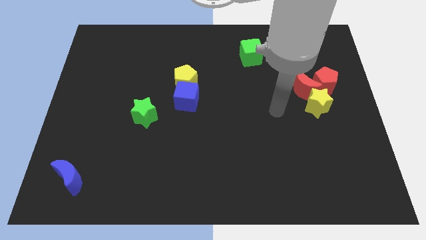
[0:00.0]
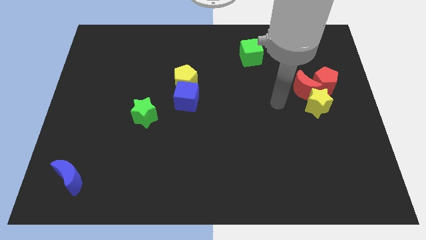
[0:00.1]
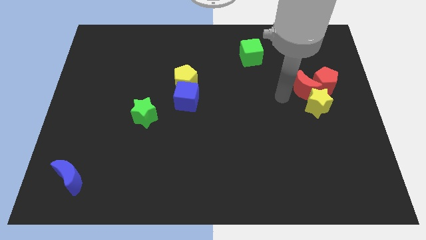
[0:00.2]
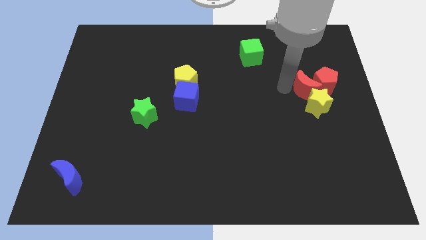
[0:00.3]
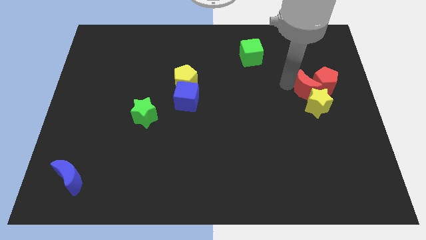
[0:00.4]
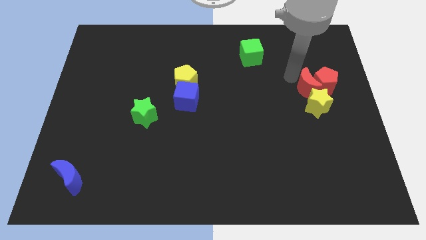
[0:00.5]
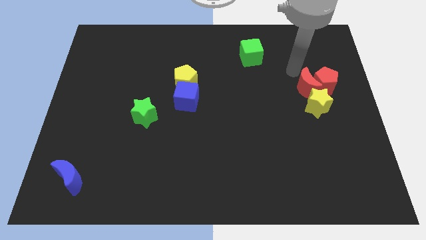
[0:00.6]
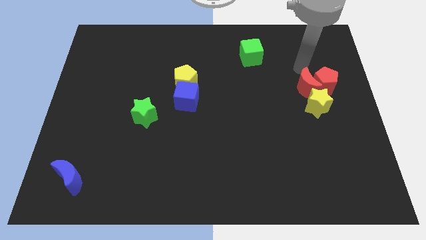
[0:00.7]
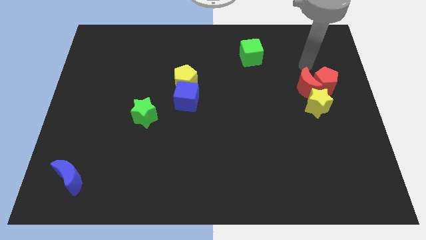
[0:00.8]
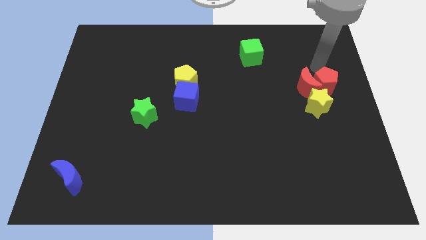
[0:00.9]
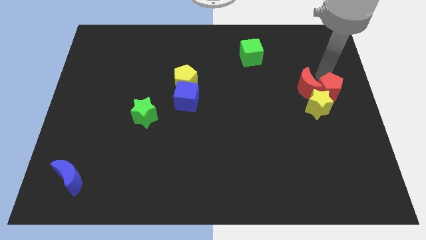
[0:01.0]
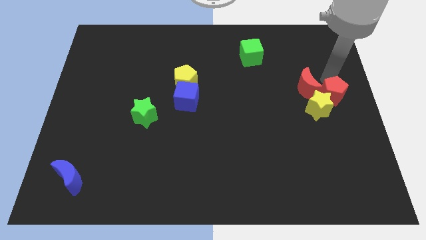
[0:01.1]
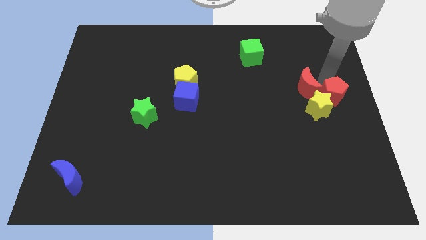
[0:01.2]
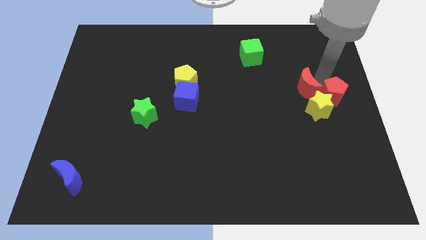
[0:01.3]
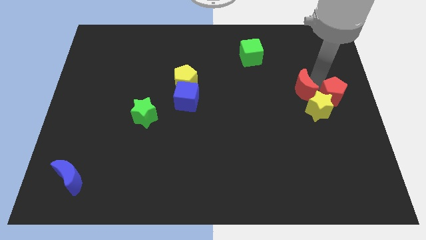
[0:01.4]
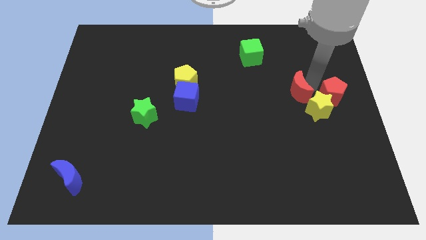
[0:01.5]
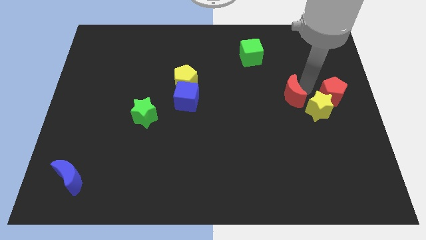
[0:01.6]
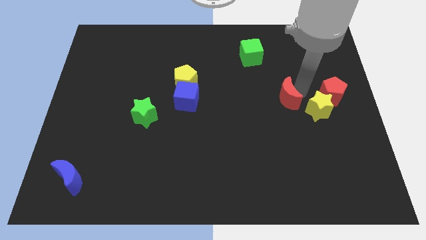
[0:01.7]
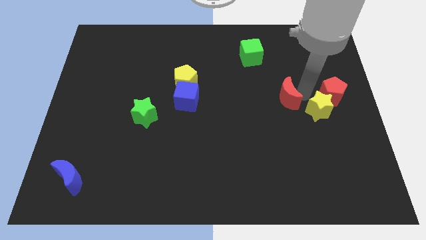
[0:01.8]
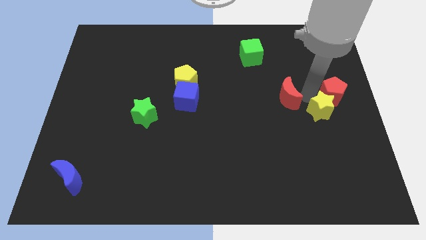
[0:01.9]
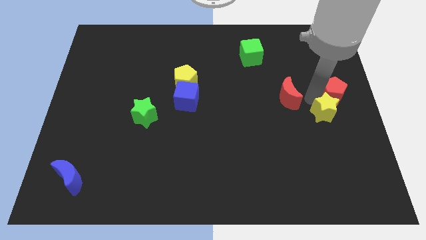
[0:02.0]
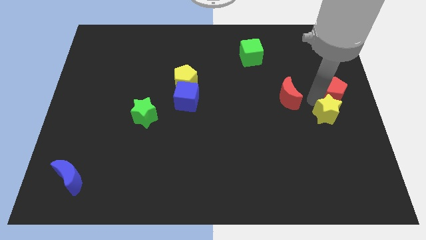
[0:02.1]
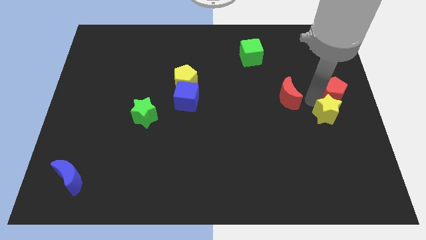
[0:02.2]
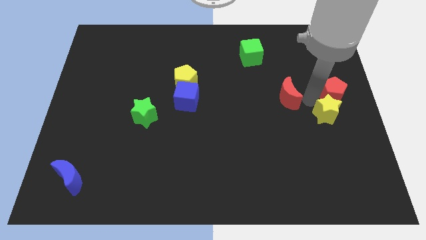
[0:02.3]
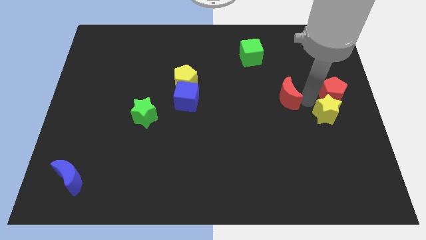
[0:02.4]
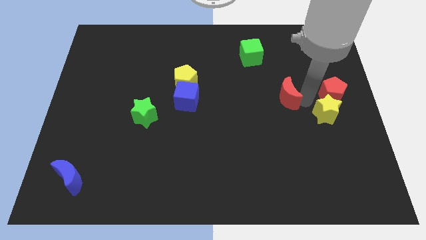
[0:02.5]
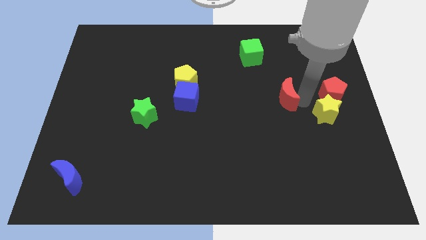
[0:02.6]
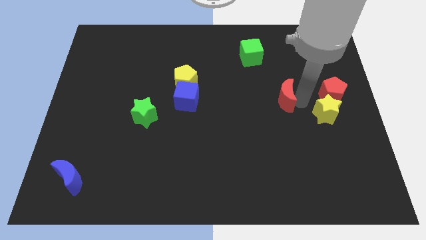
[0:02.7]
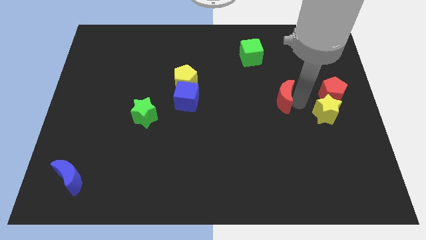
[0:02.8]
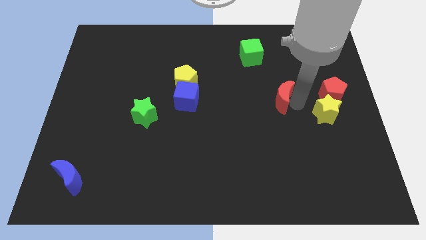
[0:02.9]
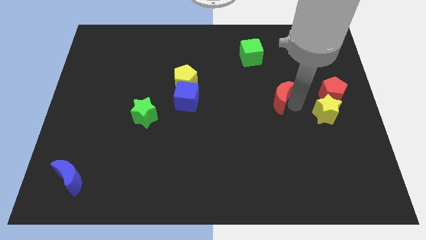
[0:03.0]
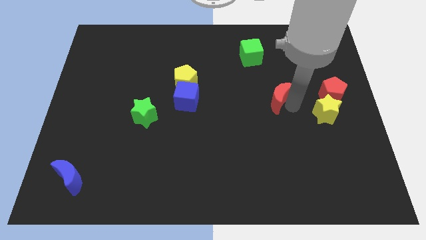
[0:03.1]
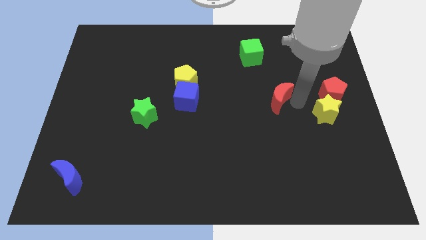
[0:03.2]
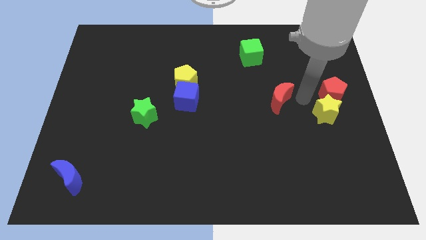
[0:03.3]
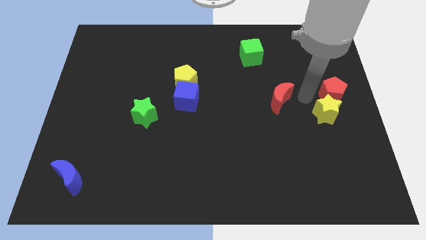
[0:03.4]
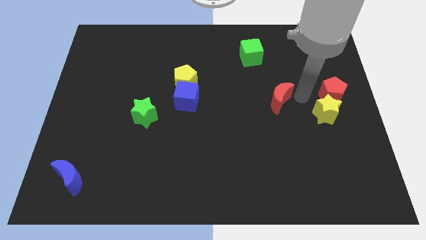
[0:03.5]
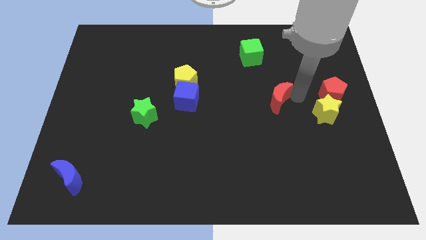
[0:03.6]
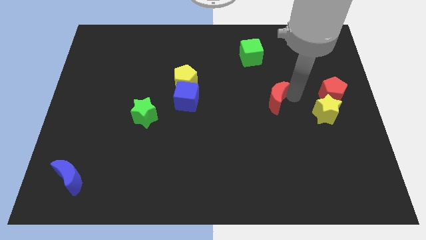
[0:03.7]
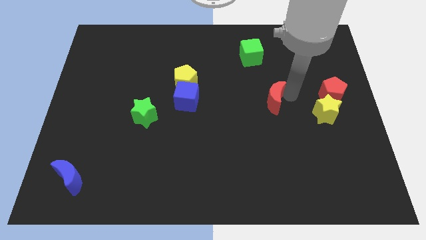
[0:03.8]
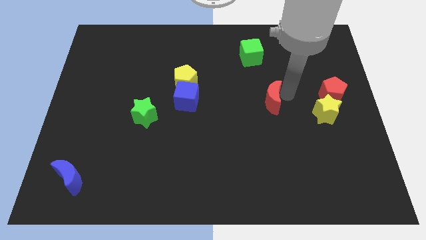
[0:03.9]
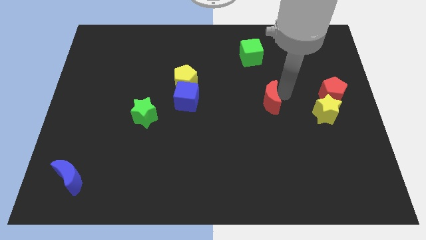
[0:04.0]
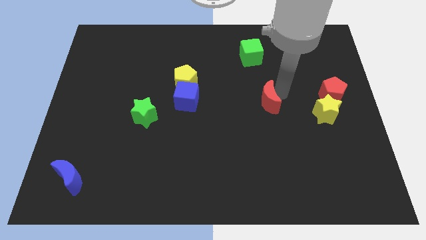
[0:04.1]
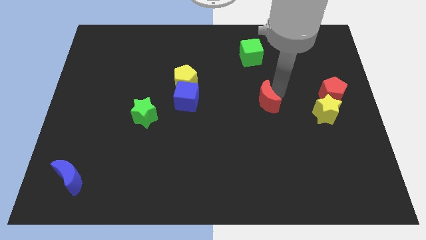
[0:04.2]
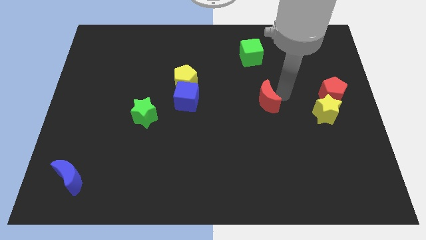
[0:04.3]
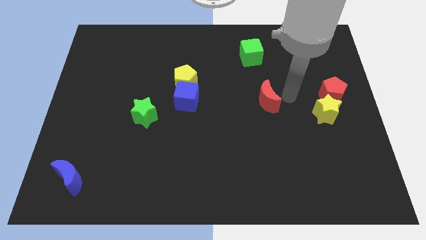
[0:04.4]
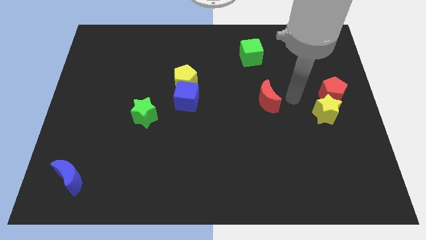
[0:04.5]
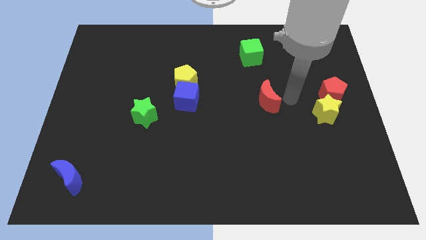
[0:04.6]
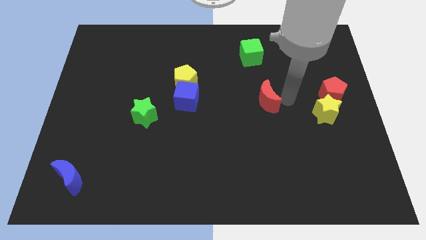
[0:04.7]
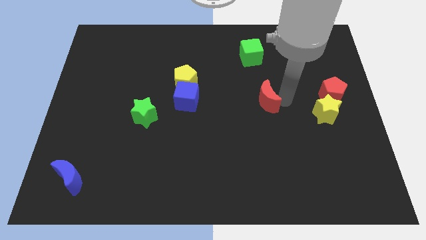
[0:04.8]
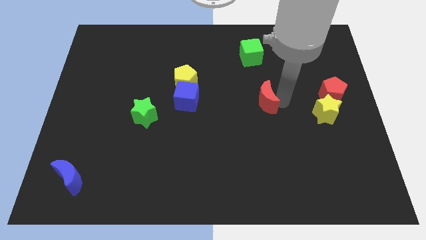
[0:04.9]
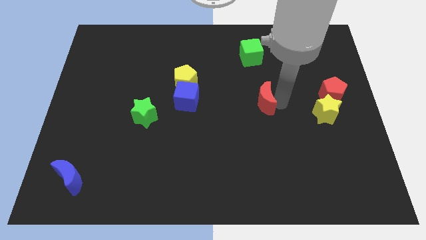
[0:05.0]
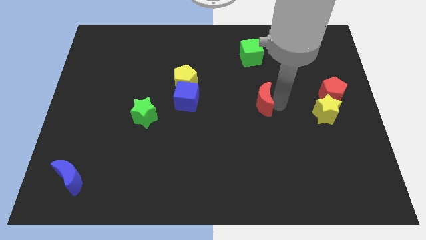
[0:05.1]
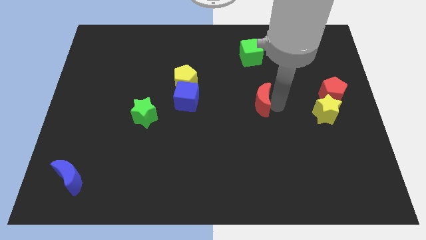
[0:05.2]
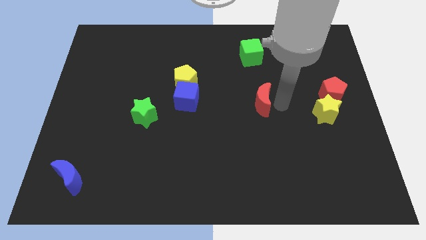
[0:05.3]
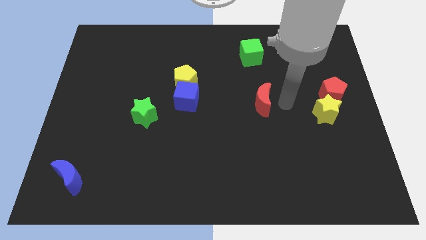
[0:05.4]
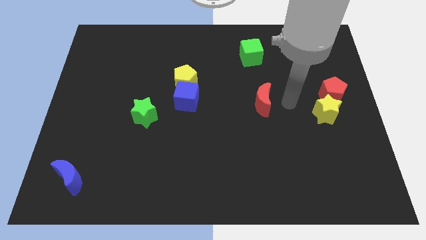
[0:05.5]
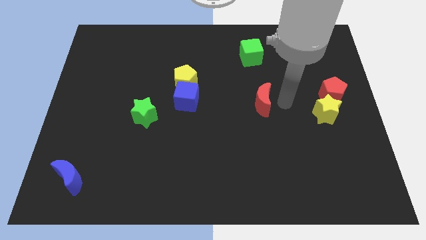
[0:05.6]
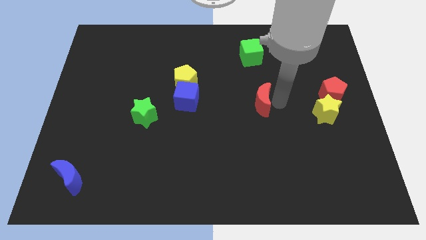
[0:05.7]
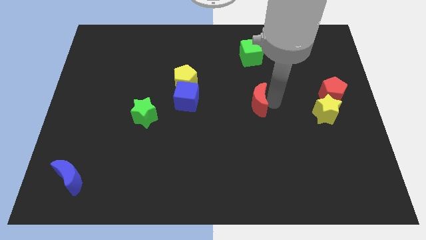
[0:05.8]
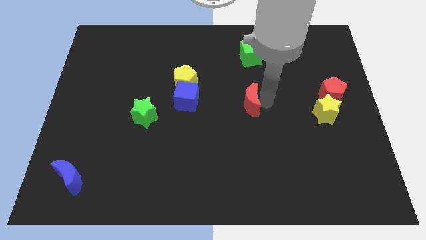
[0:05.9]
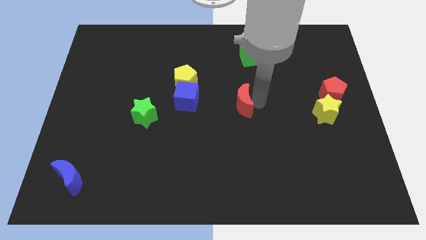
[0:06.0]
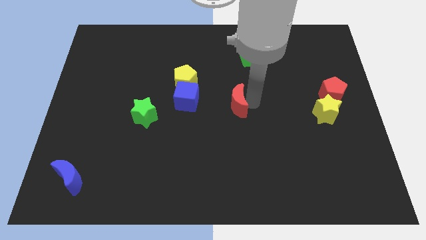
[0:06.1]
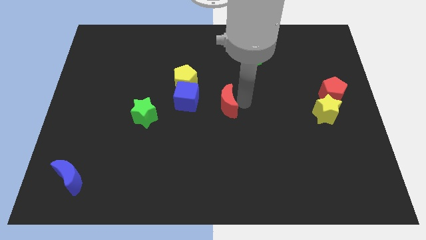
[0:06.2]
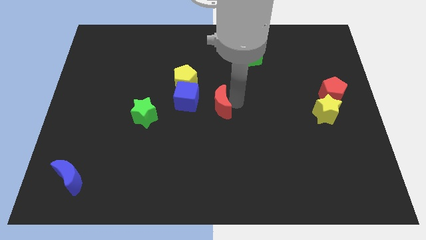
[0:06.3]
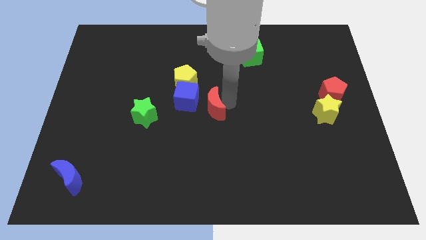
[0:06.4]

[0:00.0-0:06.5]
slide the red moon to the left

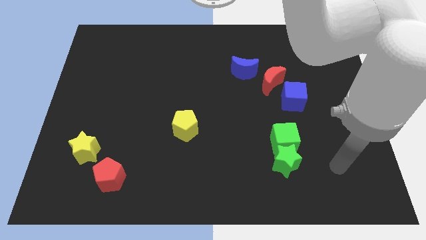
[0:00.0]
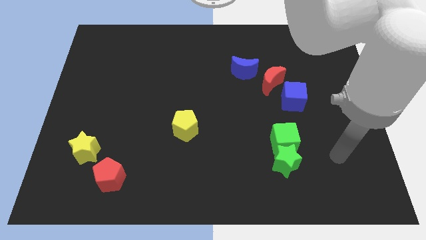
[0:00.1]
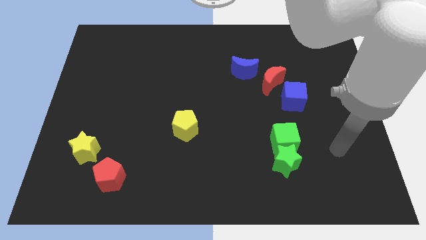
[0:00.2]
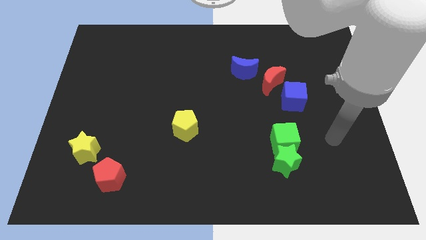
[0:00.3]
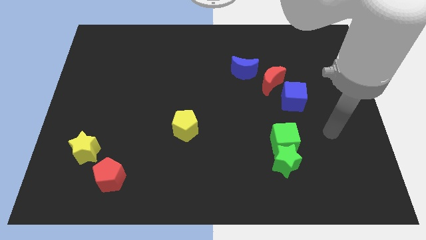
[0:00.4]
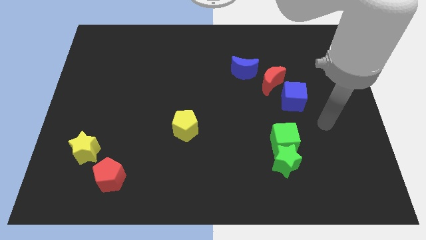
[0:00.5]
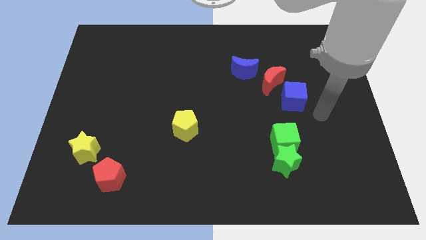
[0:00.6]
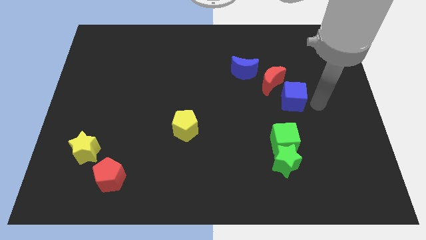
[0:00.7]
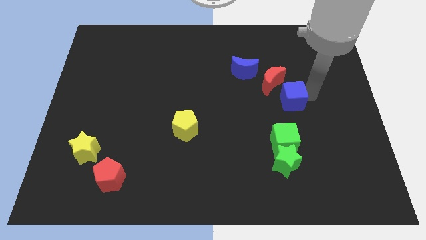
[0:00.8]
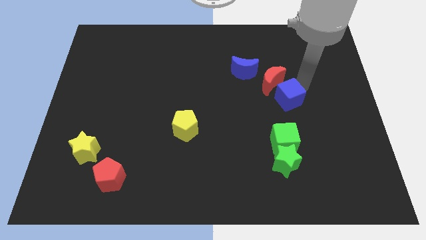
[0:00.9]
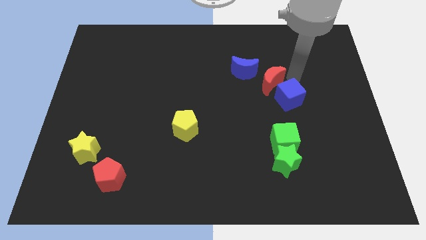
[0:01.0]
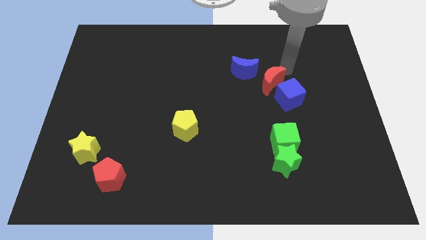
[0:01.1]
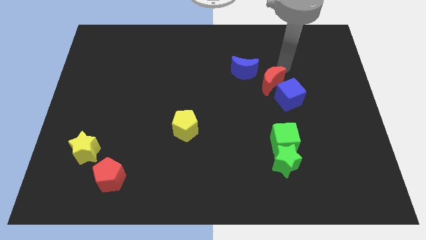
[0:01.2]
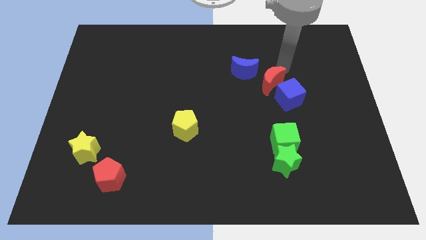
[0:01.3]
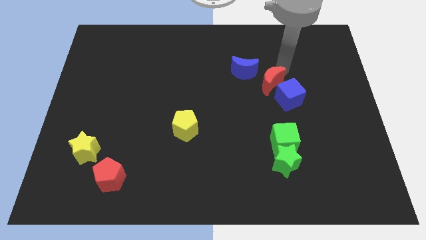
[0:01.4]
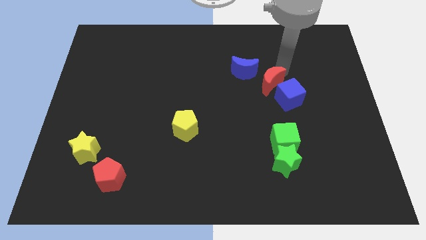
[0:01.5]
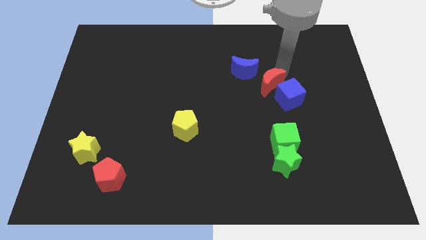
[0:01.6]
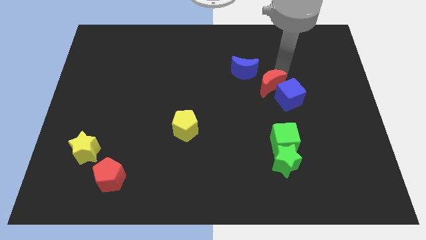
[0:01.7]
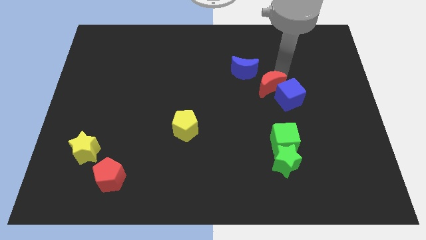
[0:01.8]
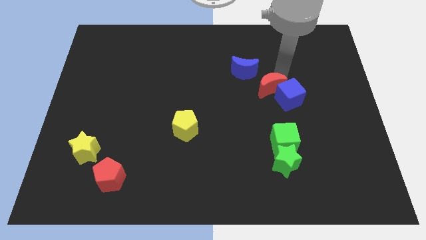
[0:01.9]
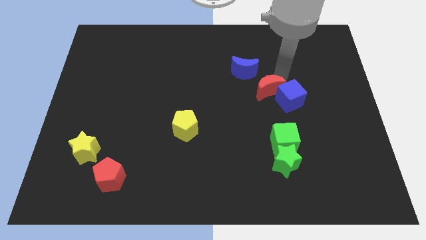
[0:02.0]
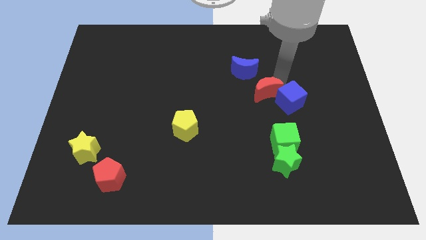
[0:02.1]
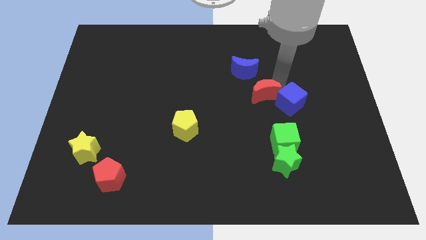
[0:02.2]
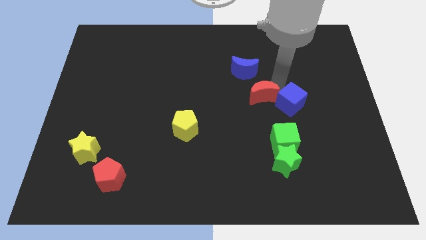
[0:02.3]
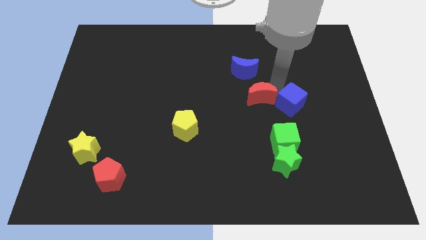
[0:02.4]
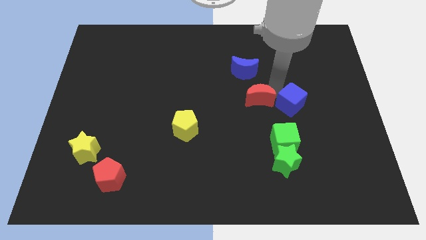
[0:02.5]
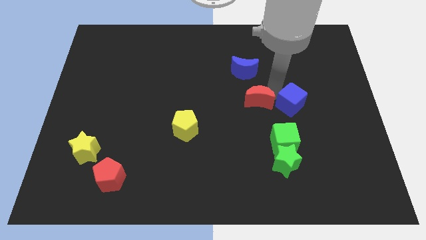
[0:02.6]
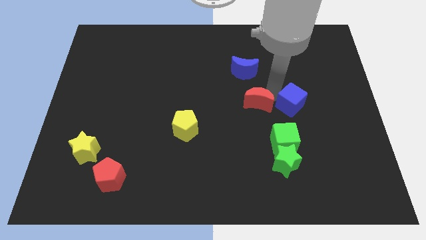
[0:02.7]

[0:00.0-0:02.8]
move the red moon downwards and to the left diagonally somewhat
